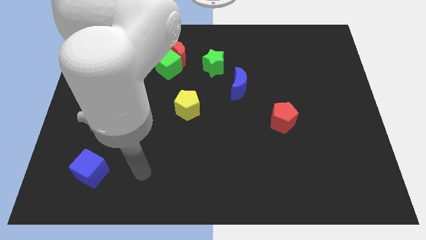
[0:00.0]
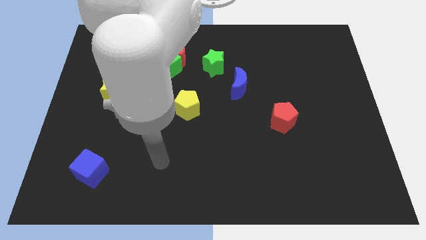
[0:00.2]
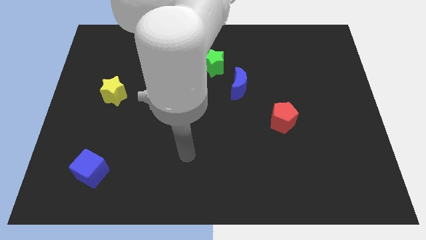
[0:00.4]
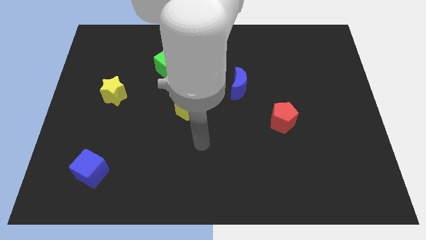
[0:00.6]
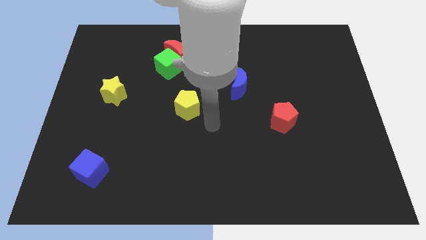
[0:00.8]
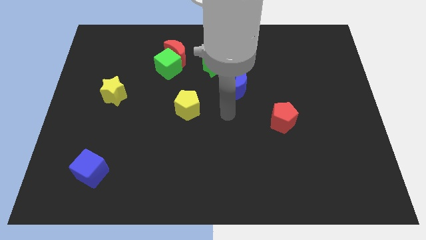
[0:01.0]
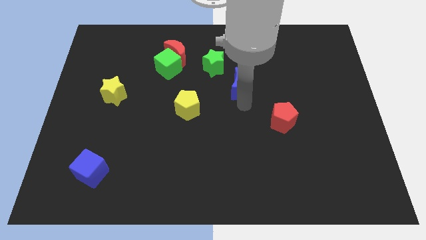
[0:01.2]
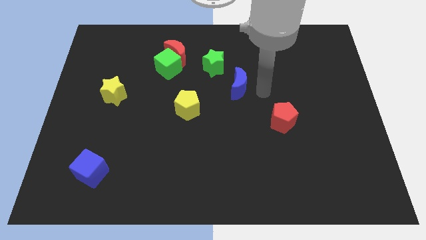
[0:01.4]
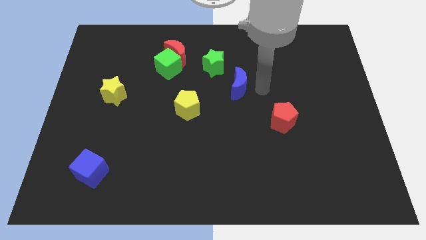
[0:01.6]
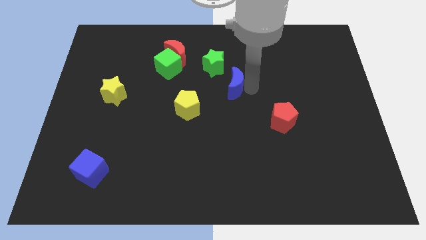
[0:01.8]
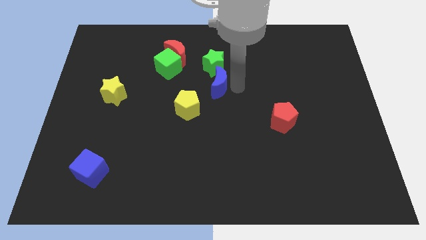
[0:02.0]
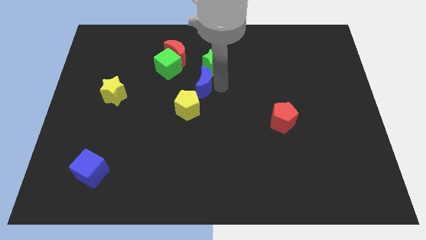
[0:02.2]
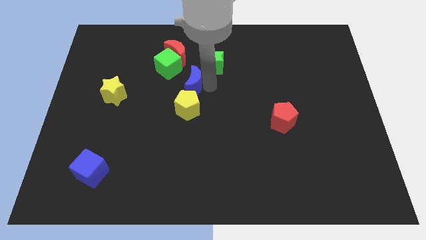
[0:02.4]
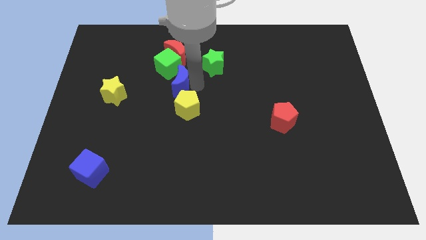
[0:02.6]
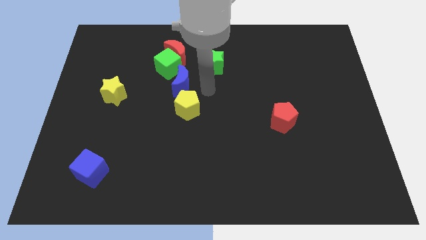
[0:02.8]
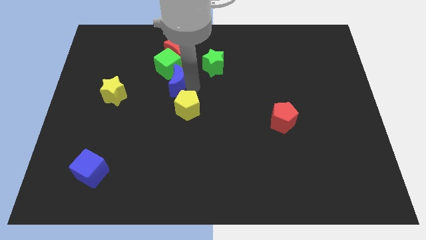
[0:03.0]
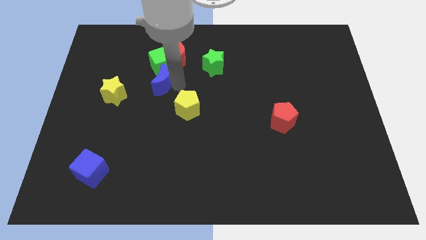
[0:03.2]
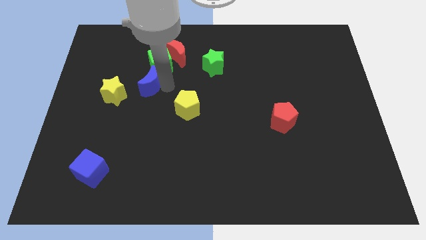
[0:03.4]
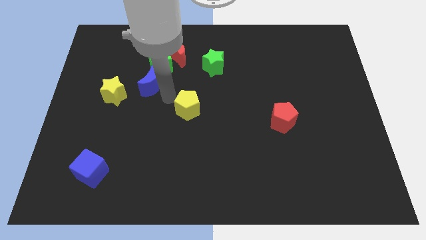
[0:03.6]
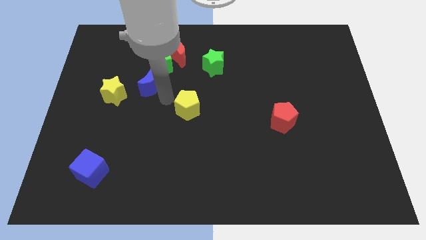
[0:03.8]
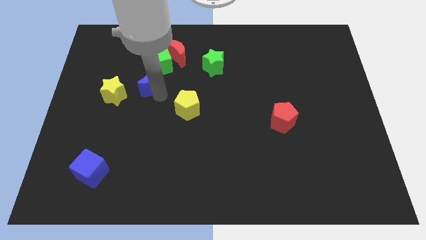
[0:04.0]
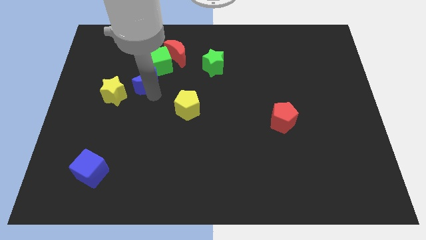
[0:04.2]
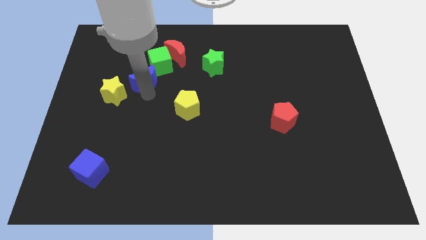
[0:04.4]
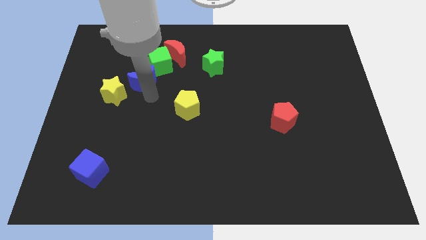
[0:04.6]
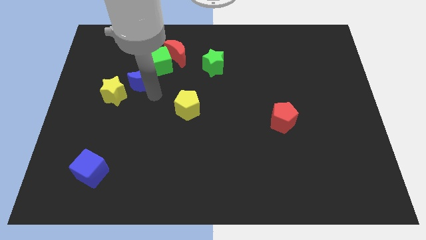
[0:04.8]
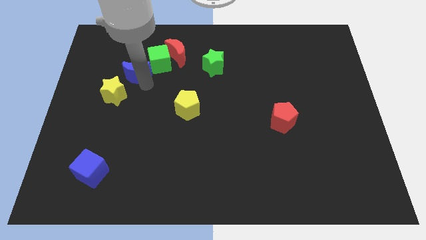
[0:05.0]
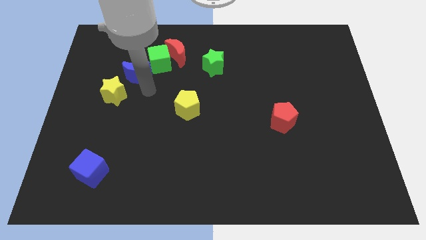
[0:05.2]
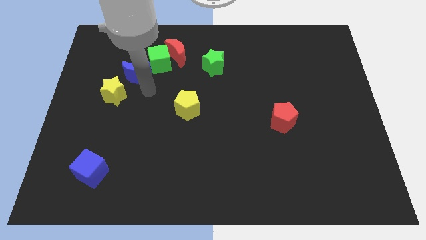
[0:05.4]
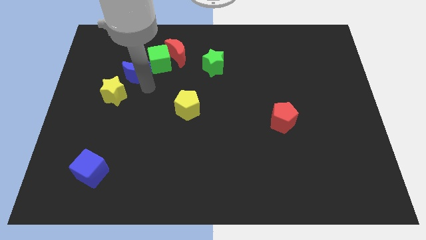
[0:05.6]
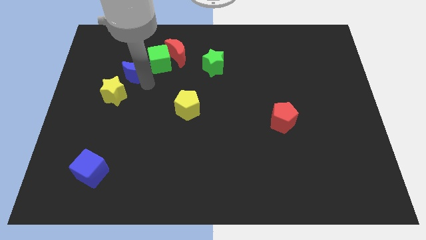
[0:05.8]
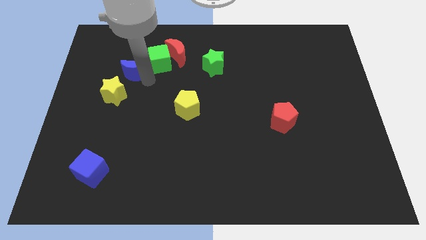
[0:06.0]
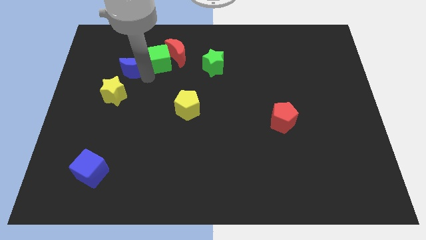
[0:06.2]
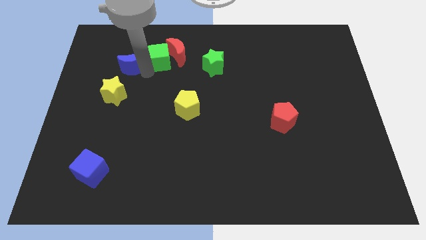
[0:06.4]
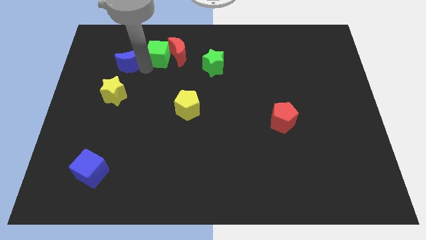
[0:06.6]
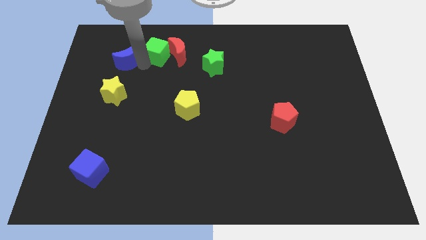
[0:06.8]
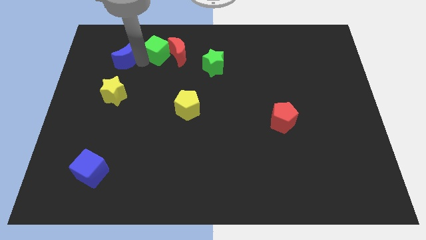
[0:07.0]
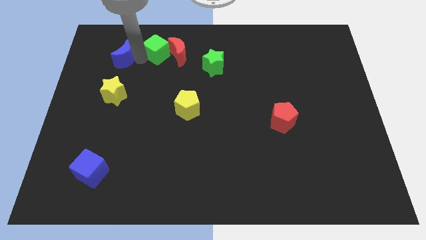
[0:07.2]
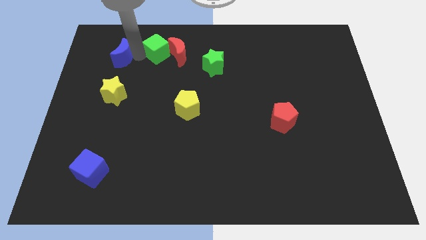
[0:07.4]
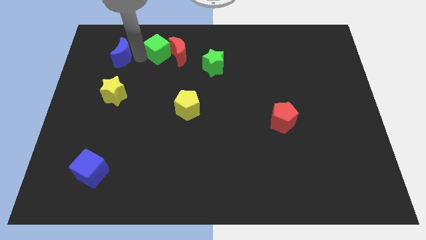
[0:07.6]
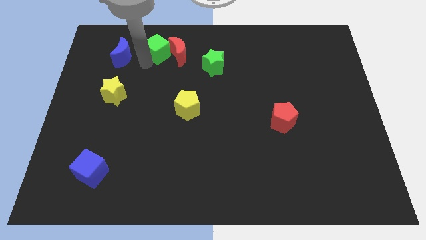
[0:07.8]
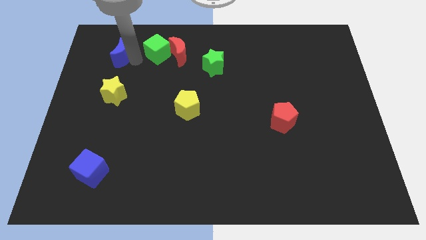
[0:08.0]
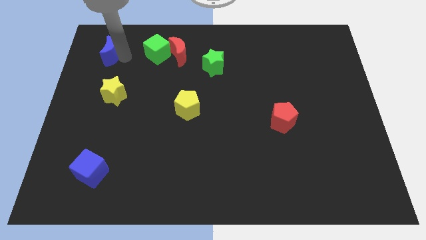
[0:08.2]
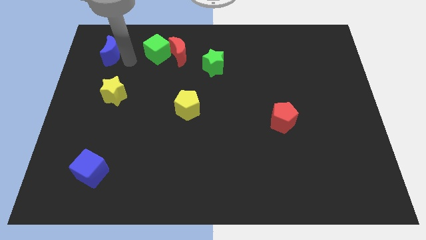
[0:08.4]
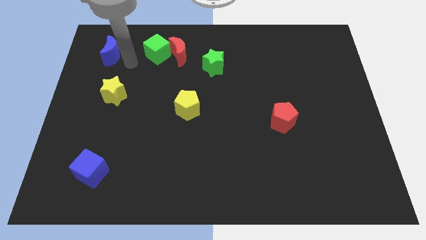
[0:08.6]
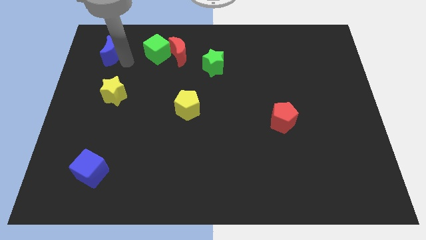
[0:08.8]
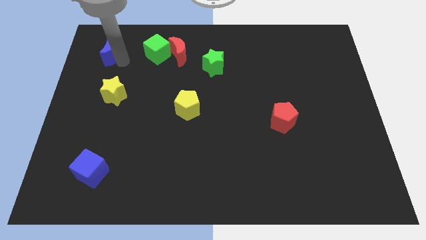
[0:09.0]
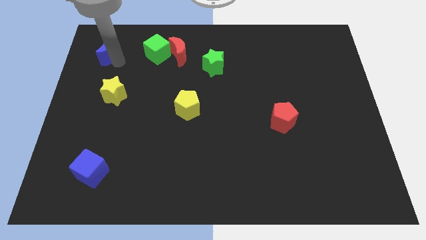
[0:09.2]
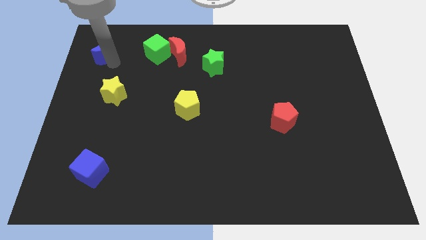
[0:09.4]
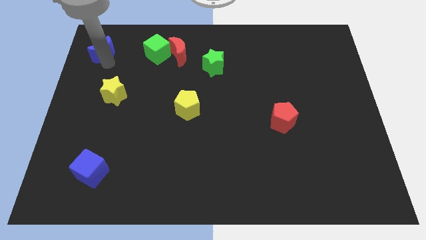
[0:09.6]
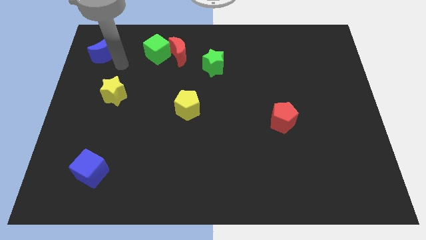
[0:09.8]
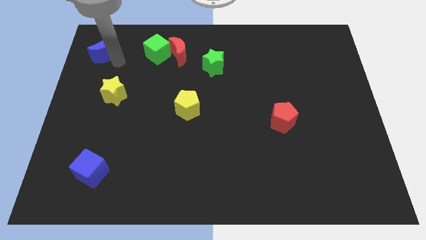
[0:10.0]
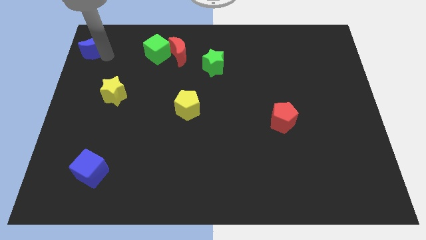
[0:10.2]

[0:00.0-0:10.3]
push the blue moon to the upper left corner

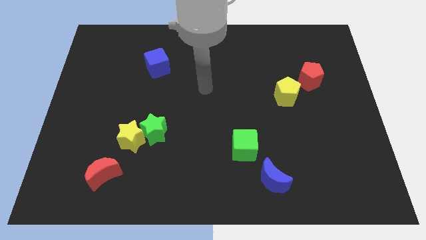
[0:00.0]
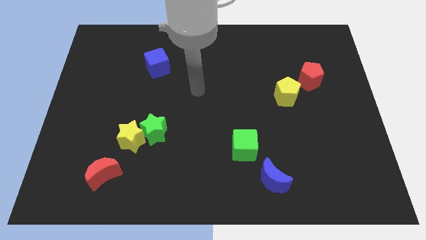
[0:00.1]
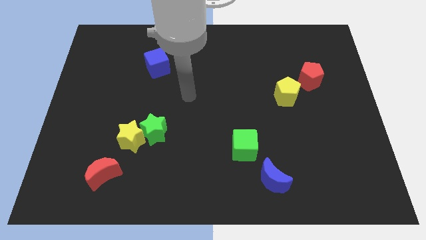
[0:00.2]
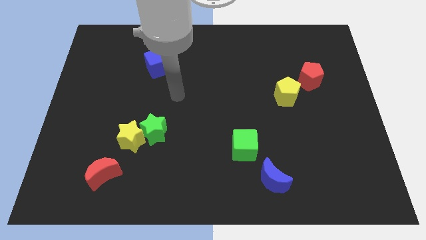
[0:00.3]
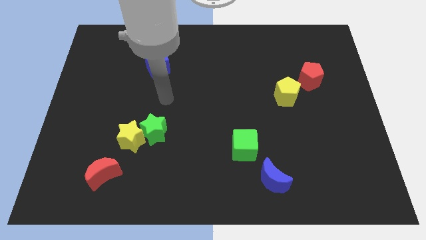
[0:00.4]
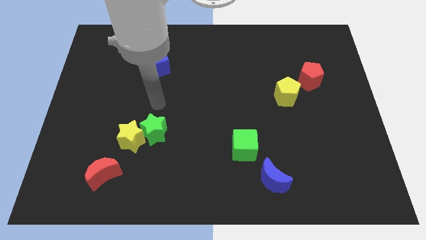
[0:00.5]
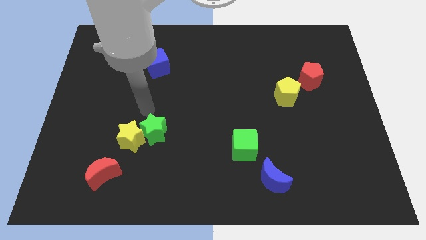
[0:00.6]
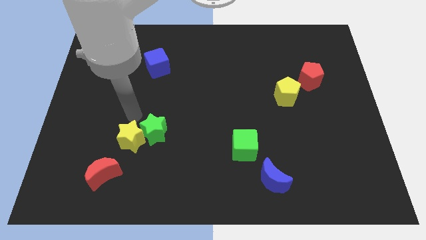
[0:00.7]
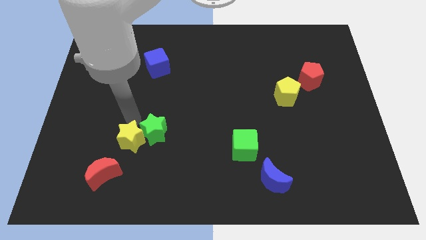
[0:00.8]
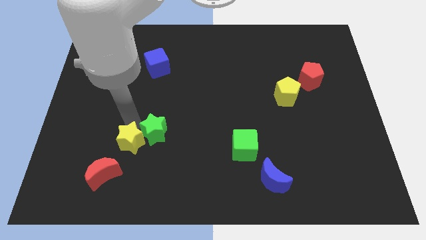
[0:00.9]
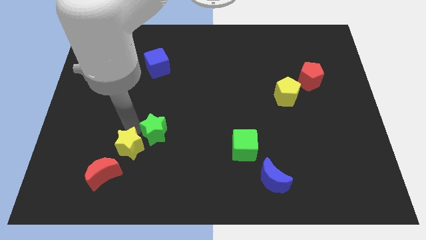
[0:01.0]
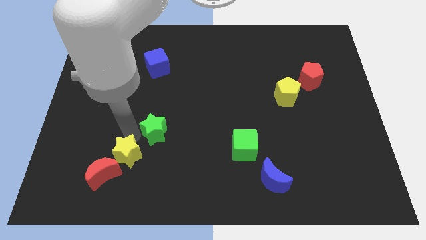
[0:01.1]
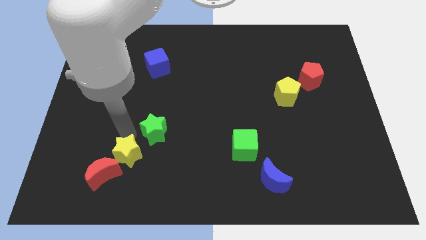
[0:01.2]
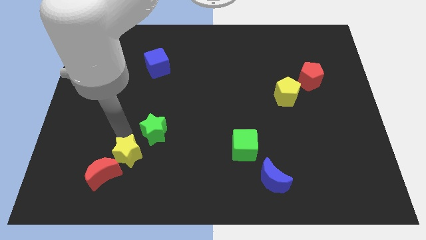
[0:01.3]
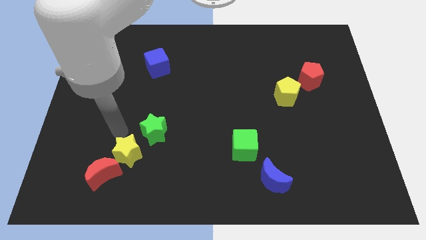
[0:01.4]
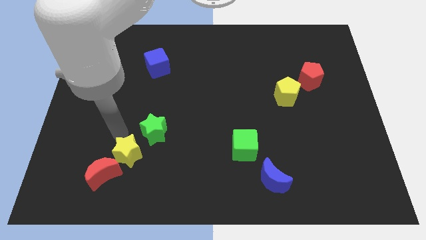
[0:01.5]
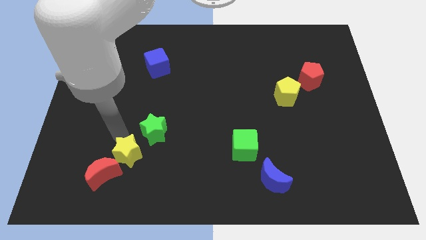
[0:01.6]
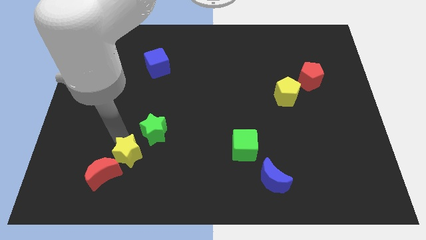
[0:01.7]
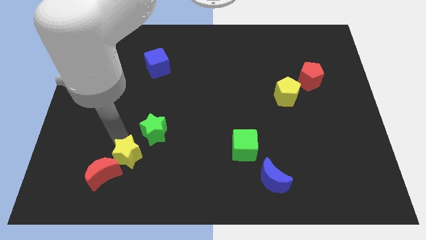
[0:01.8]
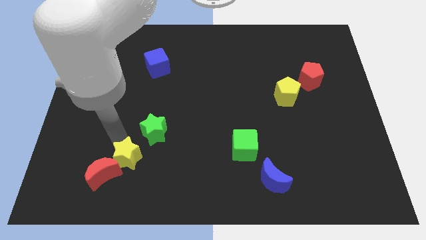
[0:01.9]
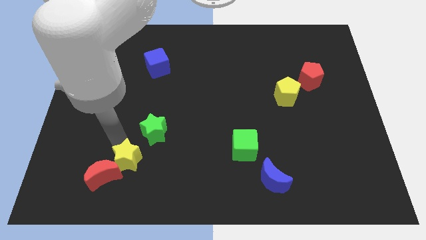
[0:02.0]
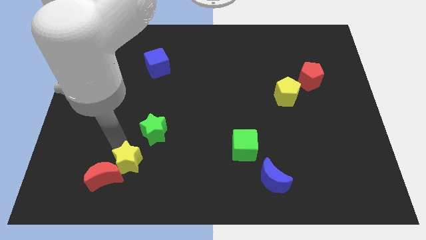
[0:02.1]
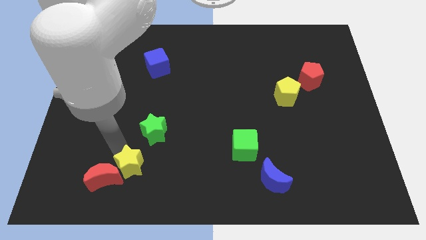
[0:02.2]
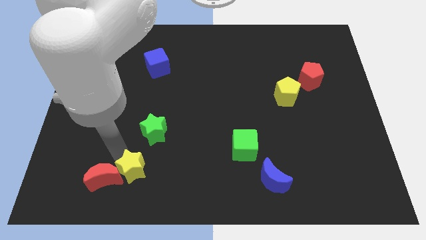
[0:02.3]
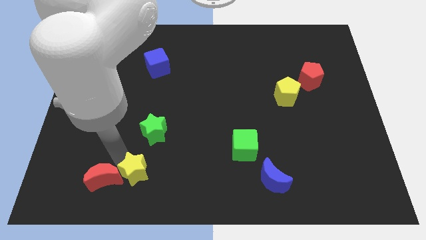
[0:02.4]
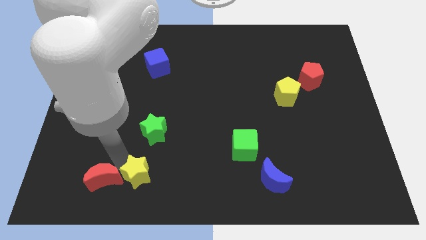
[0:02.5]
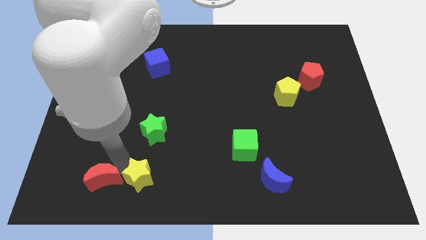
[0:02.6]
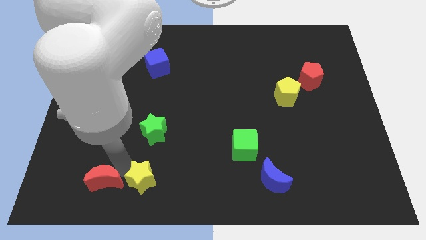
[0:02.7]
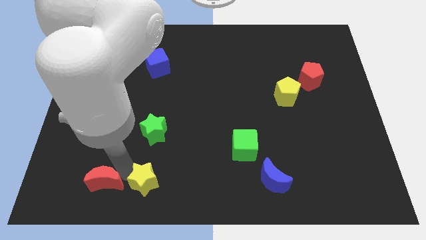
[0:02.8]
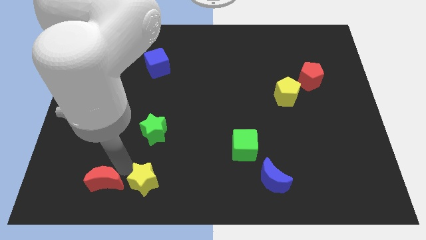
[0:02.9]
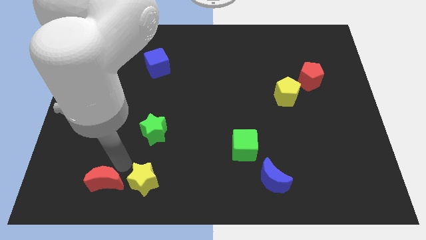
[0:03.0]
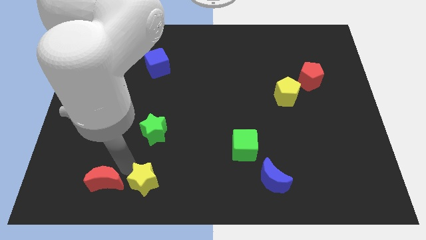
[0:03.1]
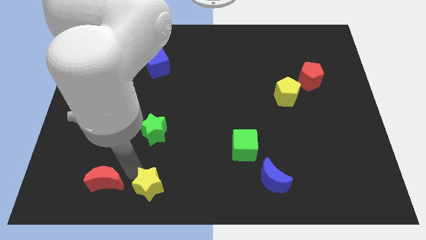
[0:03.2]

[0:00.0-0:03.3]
slide the yellow star to the bottom side
